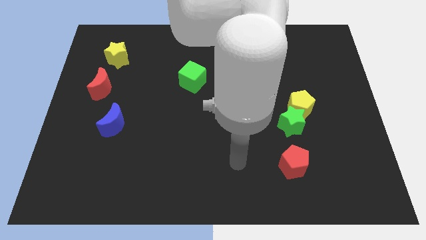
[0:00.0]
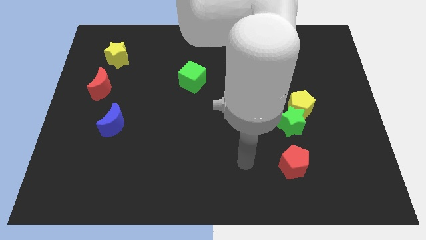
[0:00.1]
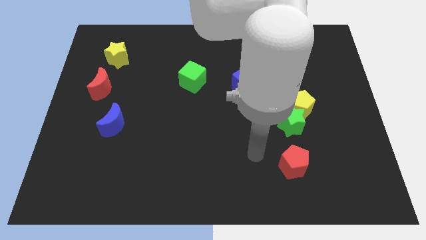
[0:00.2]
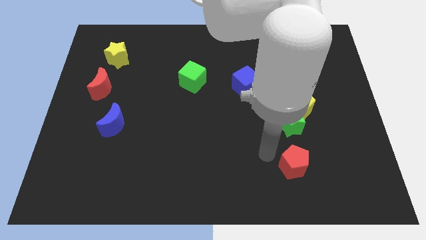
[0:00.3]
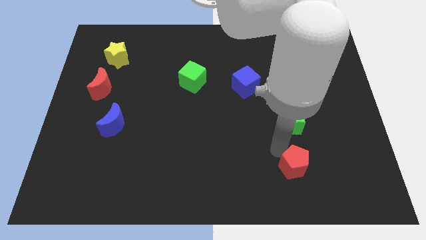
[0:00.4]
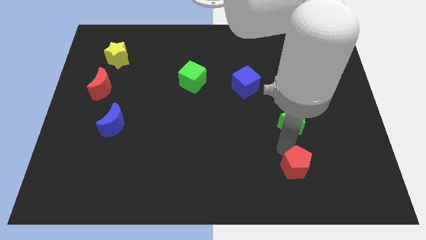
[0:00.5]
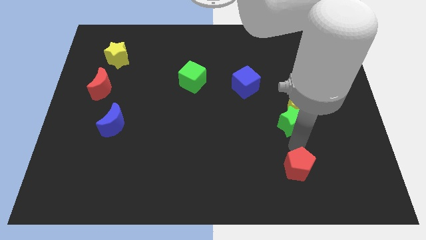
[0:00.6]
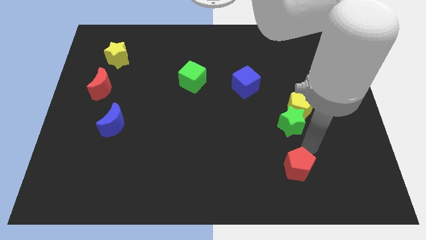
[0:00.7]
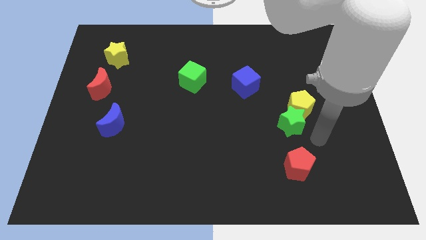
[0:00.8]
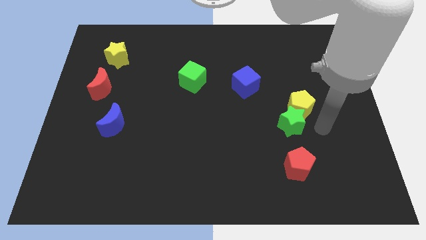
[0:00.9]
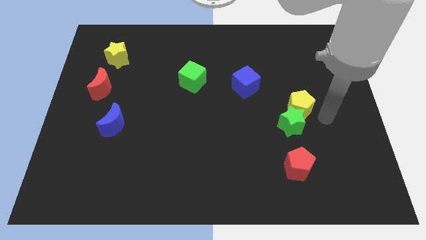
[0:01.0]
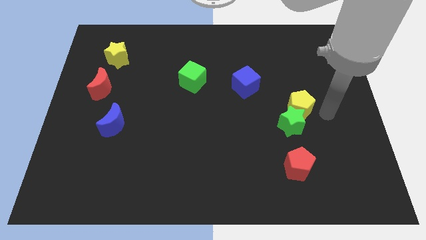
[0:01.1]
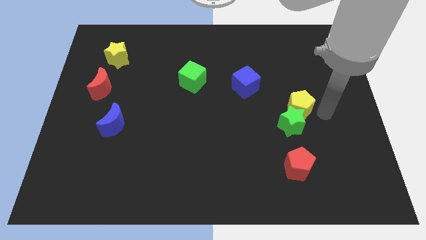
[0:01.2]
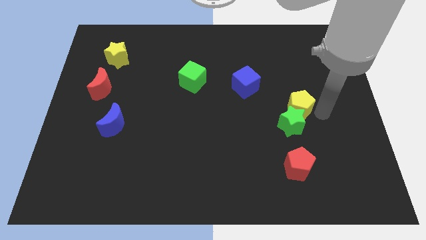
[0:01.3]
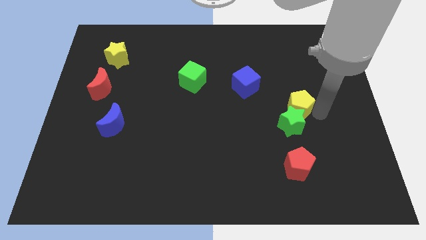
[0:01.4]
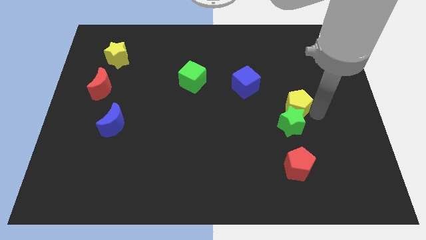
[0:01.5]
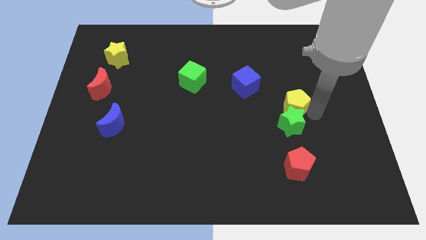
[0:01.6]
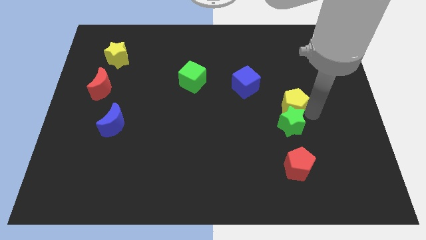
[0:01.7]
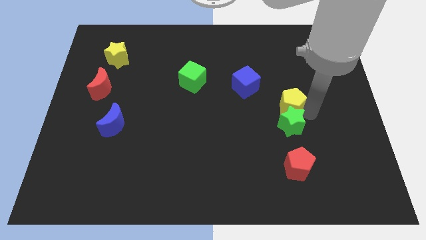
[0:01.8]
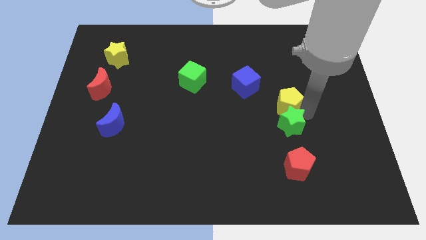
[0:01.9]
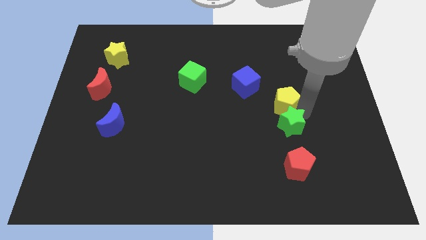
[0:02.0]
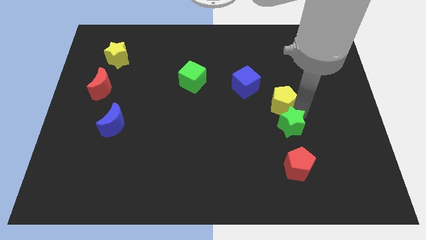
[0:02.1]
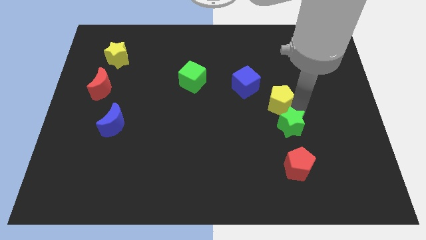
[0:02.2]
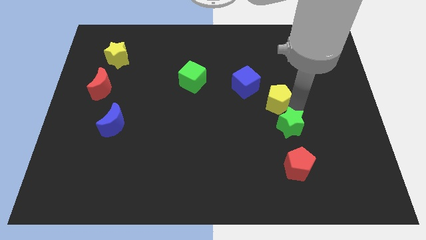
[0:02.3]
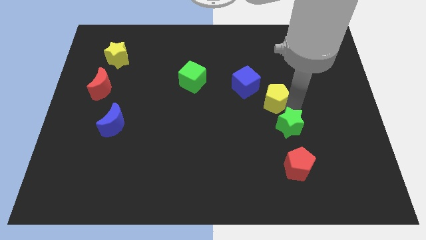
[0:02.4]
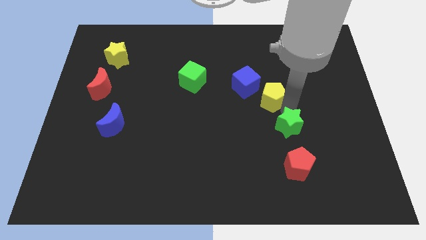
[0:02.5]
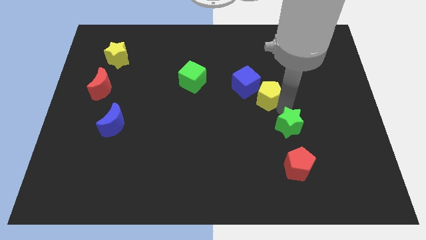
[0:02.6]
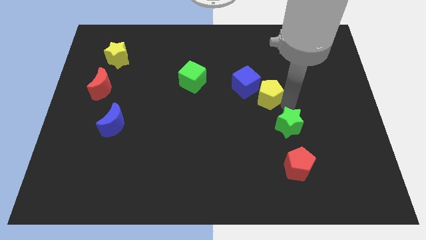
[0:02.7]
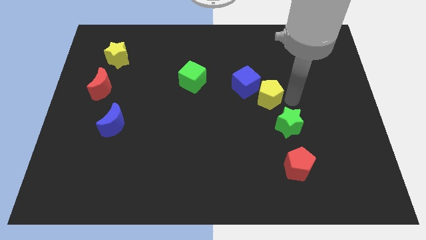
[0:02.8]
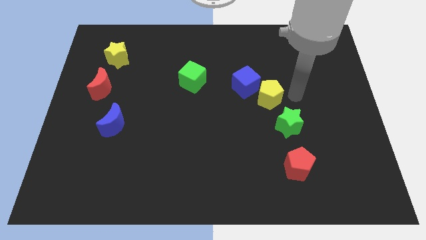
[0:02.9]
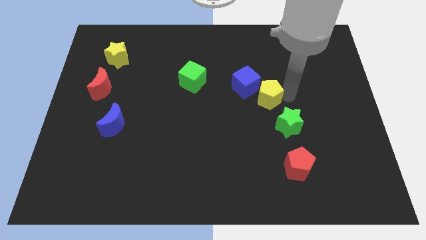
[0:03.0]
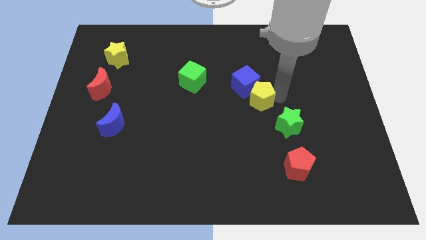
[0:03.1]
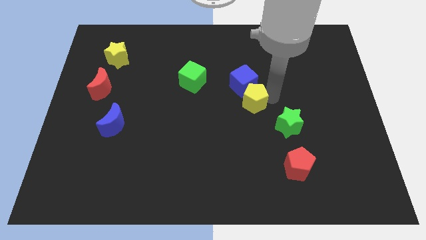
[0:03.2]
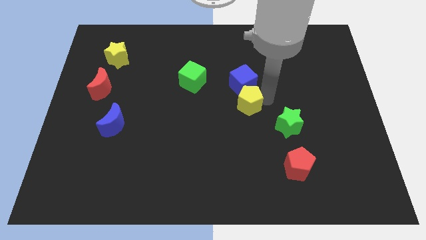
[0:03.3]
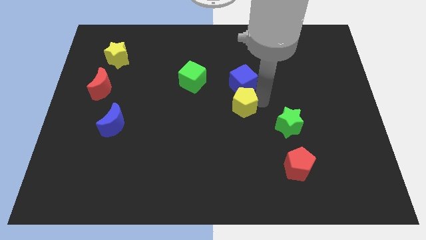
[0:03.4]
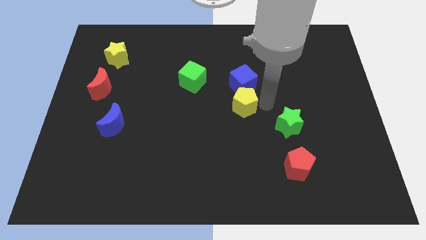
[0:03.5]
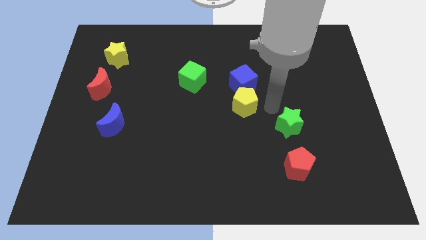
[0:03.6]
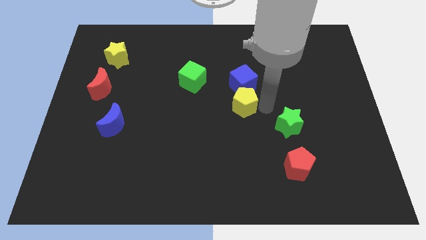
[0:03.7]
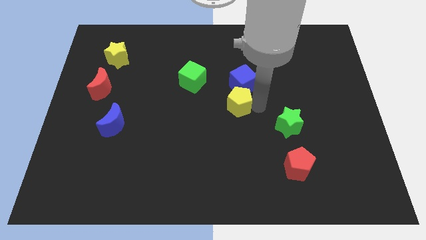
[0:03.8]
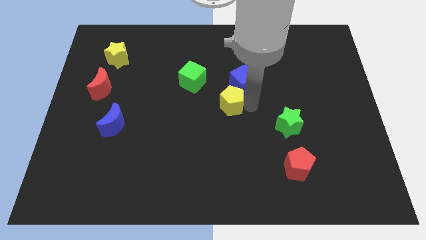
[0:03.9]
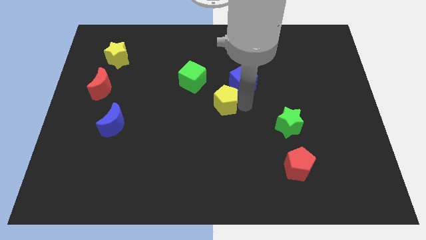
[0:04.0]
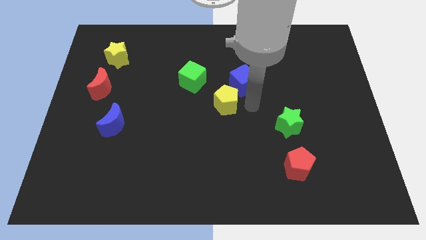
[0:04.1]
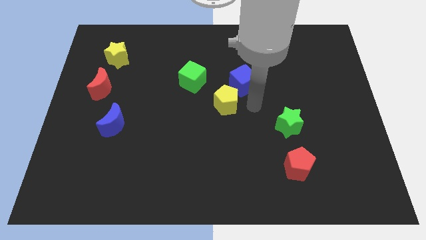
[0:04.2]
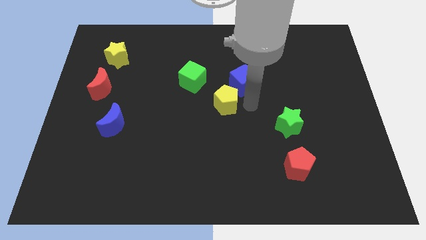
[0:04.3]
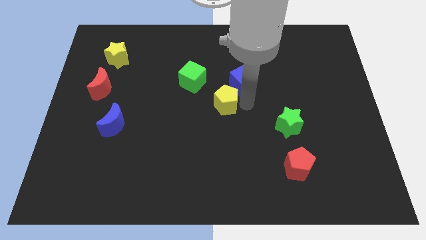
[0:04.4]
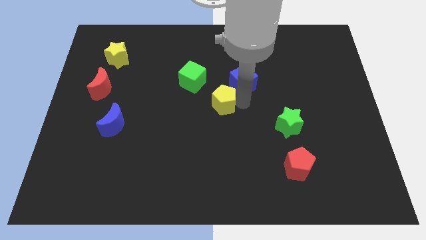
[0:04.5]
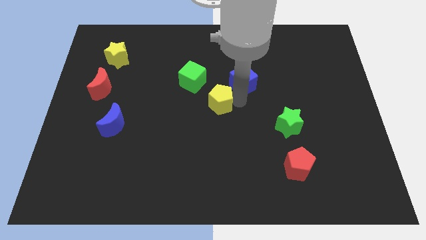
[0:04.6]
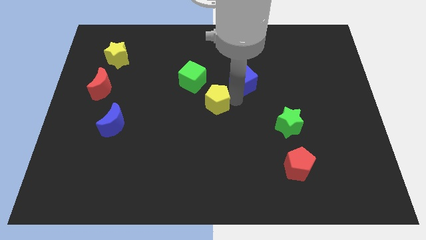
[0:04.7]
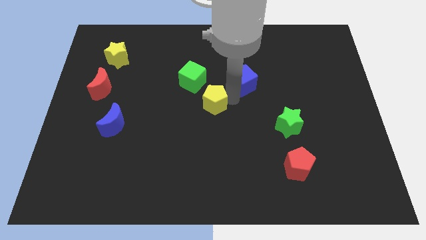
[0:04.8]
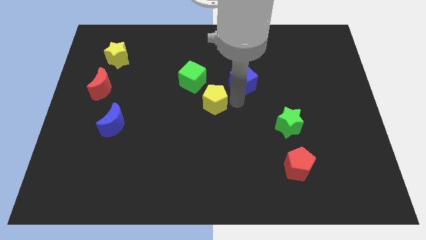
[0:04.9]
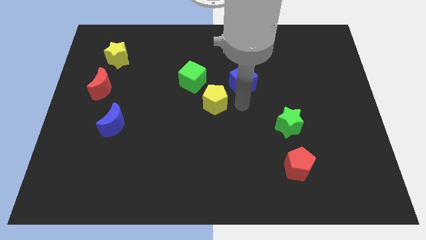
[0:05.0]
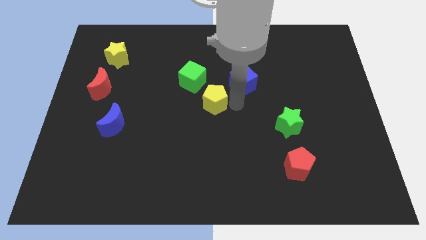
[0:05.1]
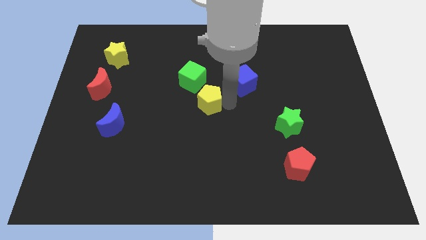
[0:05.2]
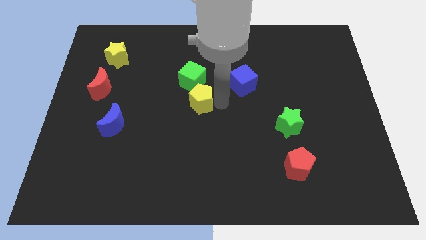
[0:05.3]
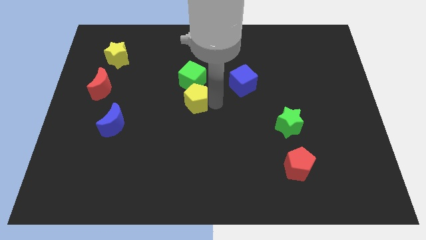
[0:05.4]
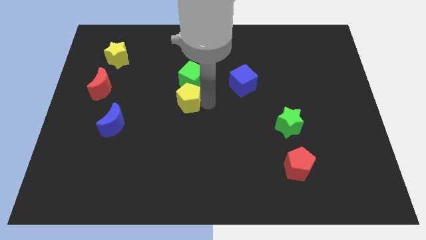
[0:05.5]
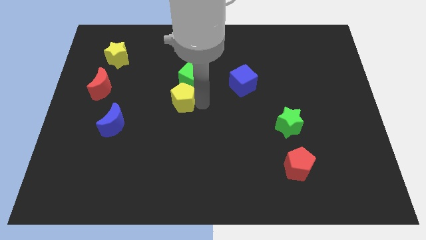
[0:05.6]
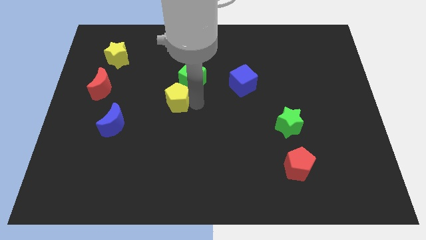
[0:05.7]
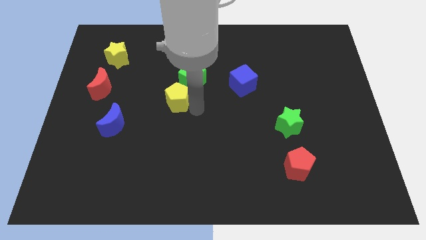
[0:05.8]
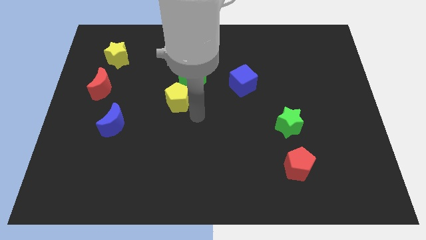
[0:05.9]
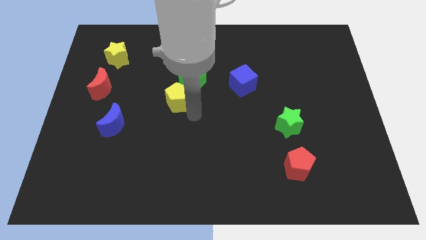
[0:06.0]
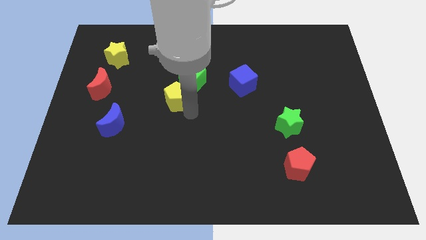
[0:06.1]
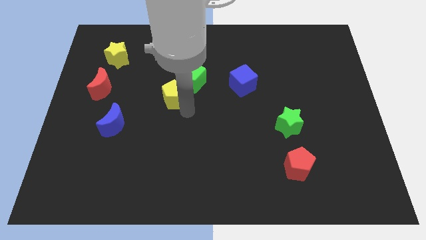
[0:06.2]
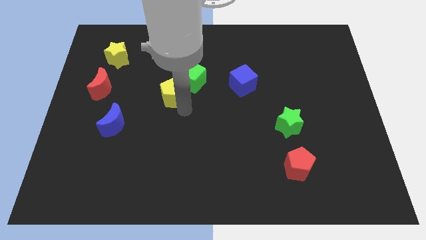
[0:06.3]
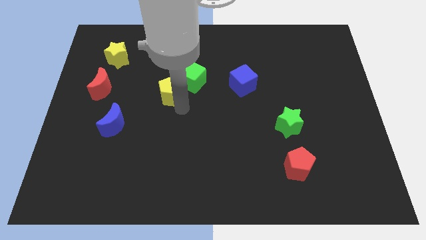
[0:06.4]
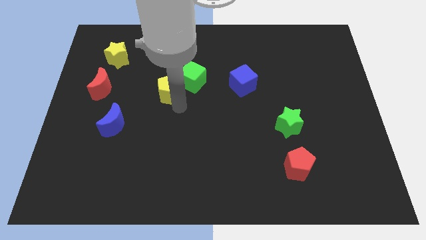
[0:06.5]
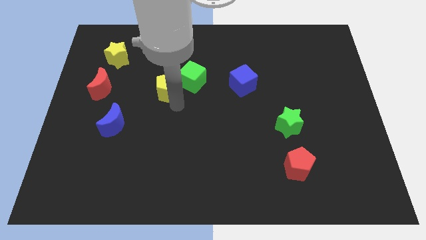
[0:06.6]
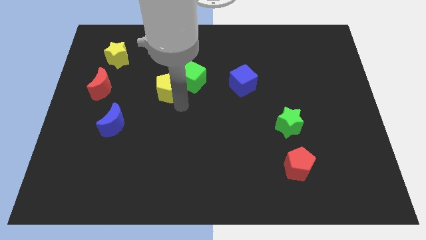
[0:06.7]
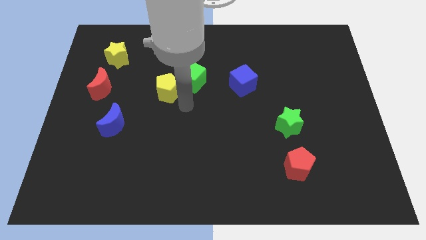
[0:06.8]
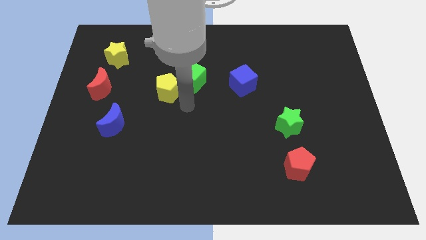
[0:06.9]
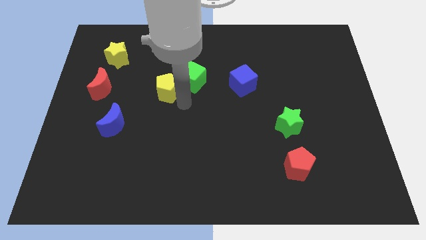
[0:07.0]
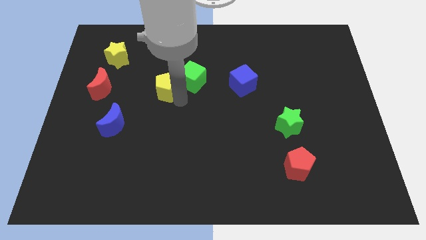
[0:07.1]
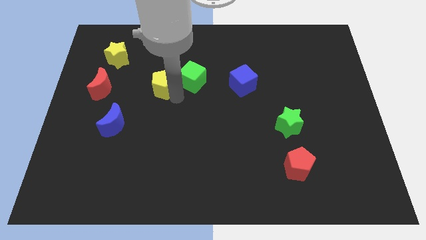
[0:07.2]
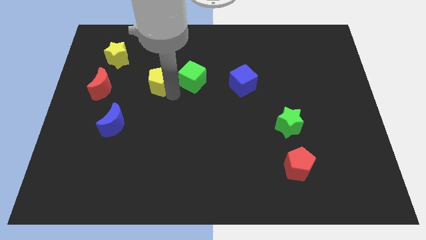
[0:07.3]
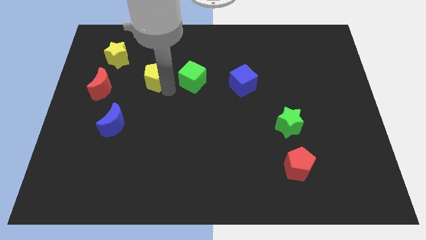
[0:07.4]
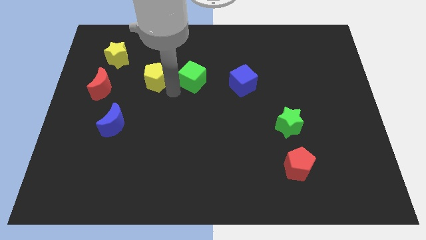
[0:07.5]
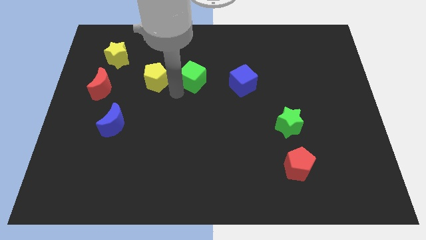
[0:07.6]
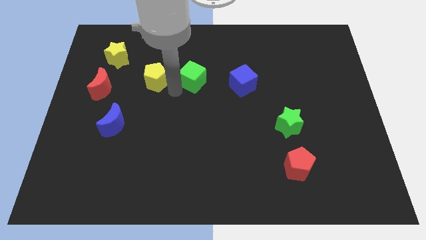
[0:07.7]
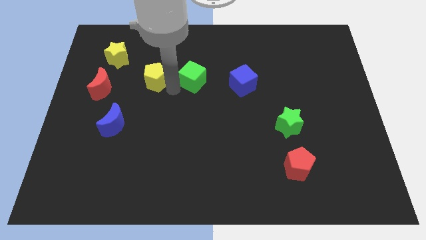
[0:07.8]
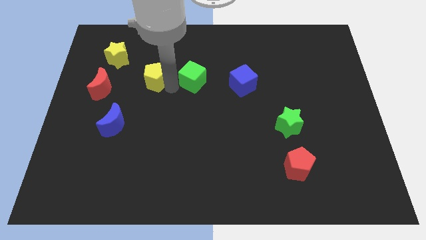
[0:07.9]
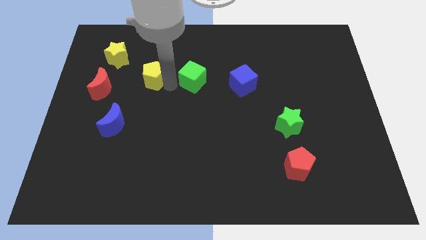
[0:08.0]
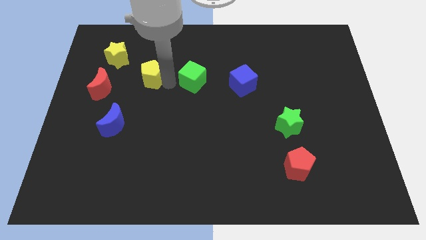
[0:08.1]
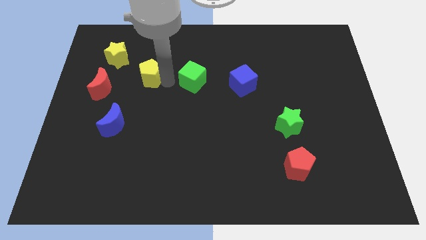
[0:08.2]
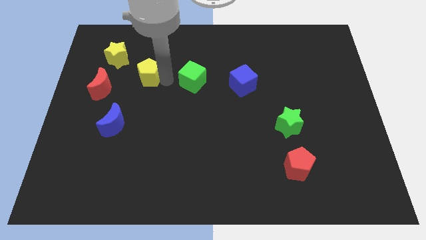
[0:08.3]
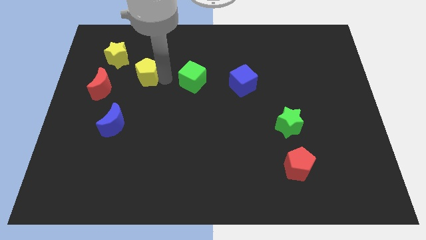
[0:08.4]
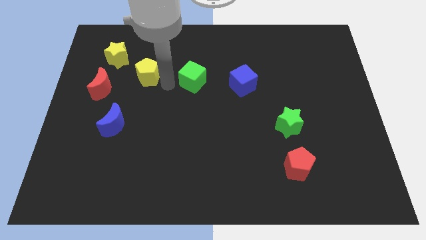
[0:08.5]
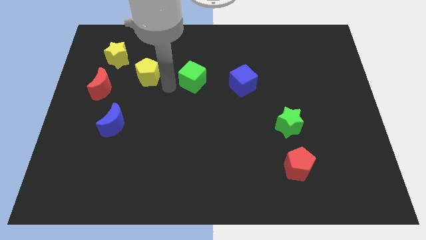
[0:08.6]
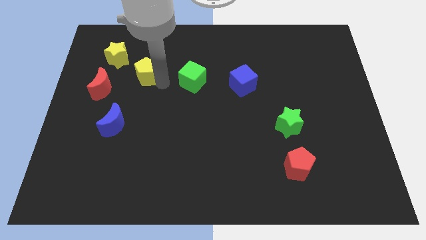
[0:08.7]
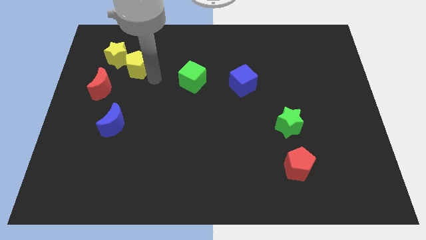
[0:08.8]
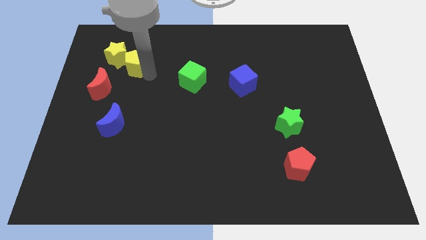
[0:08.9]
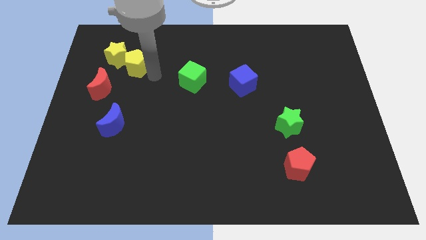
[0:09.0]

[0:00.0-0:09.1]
put the yellow pentagon to the yellow star
